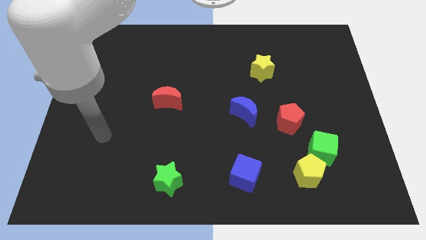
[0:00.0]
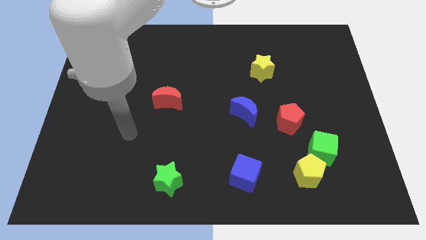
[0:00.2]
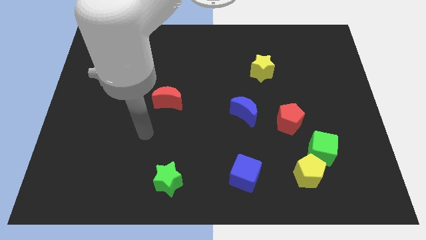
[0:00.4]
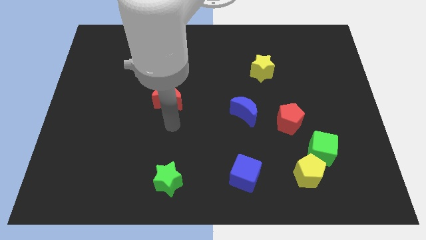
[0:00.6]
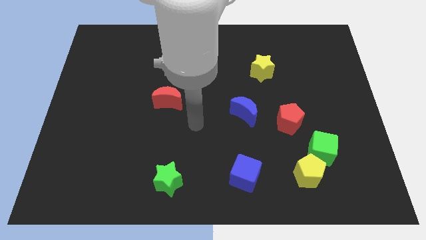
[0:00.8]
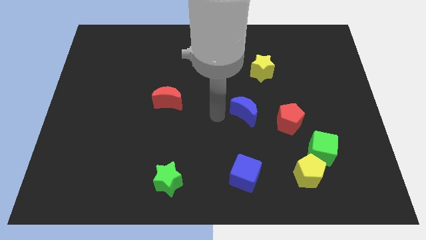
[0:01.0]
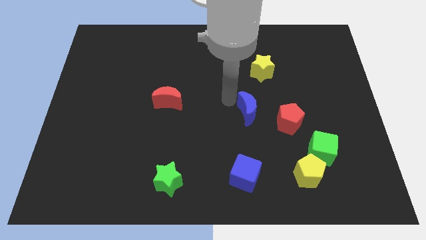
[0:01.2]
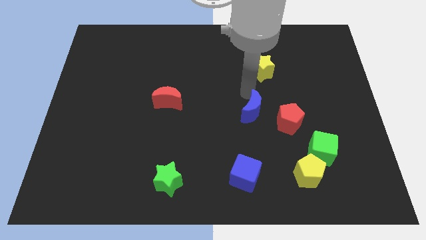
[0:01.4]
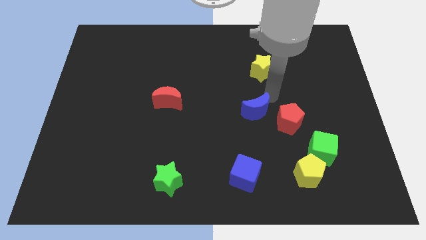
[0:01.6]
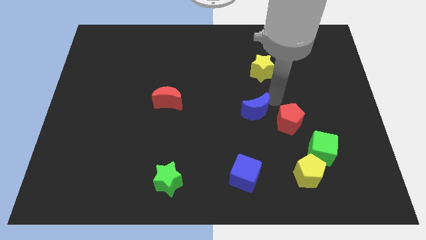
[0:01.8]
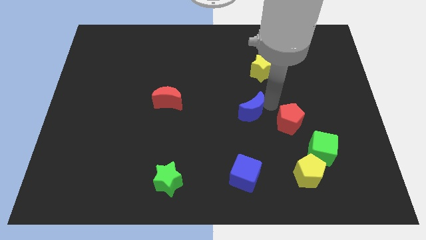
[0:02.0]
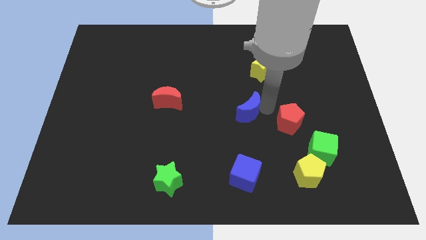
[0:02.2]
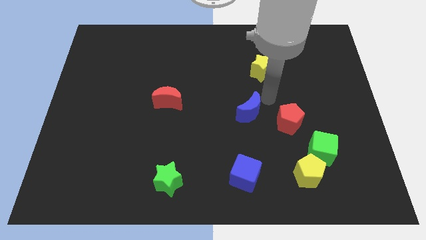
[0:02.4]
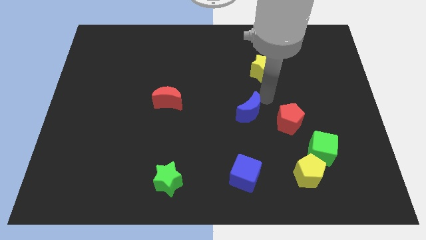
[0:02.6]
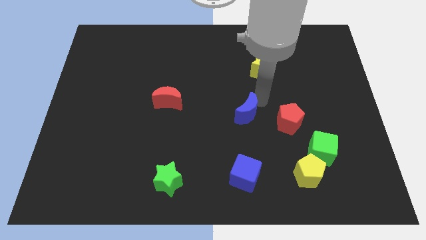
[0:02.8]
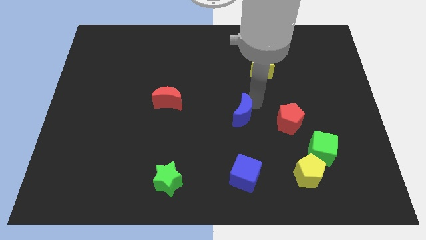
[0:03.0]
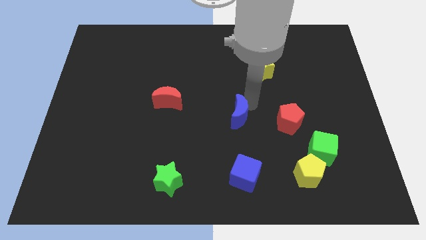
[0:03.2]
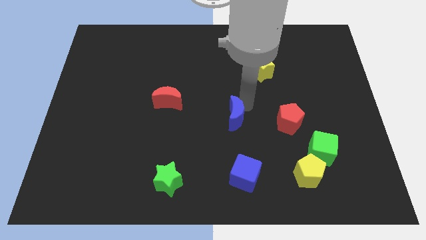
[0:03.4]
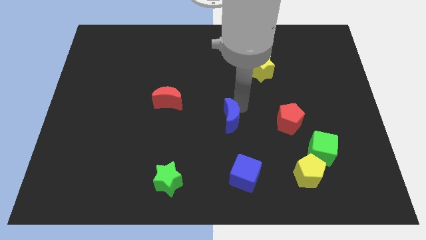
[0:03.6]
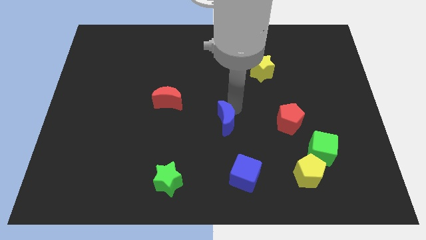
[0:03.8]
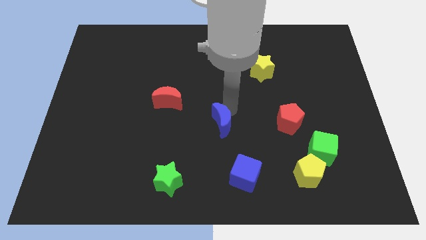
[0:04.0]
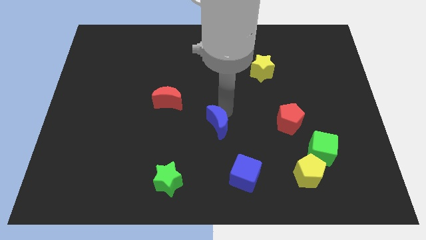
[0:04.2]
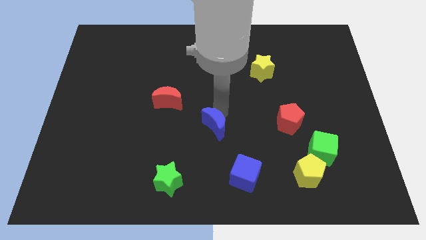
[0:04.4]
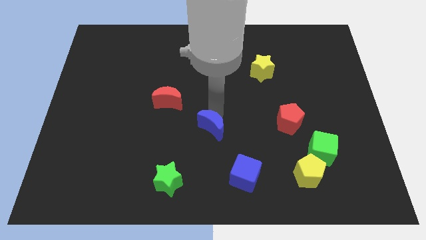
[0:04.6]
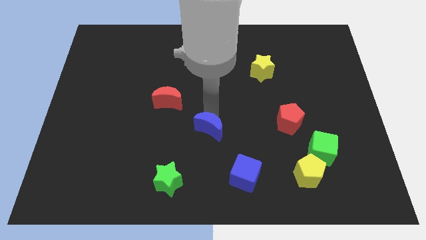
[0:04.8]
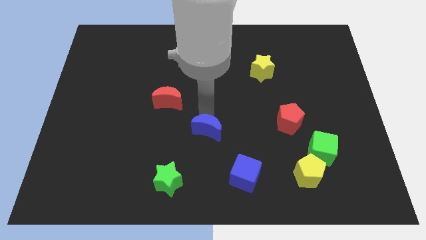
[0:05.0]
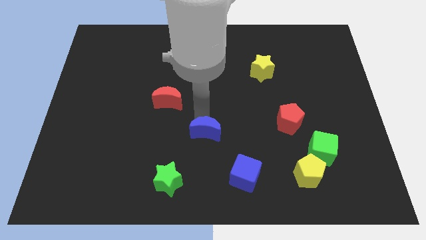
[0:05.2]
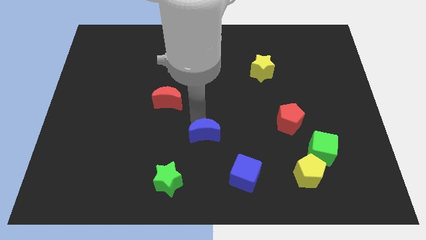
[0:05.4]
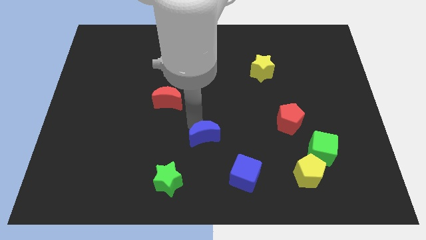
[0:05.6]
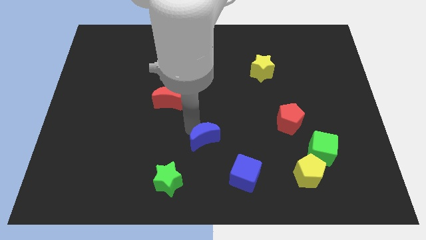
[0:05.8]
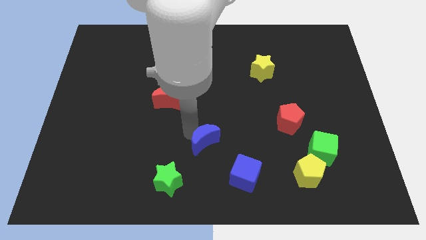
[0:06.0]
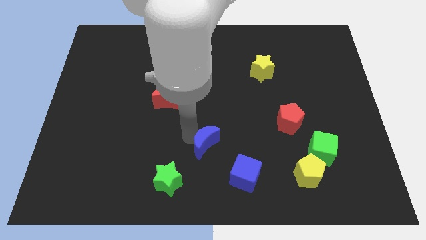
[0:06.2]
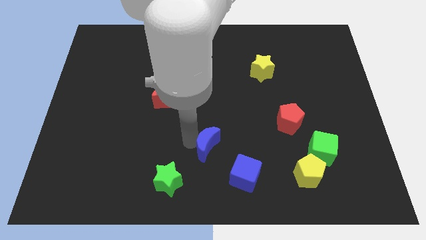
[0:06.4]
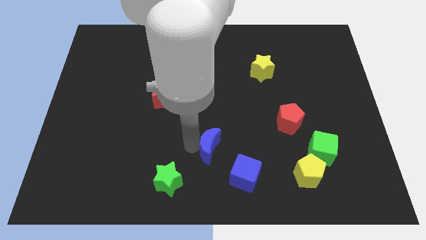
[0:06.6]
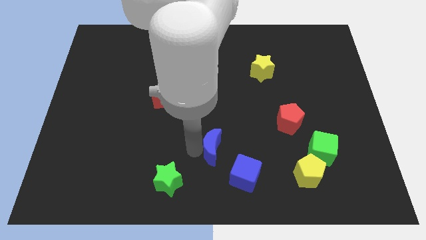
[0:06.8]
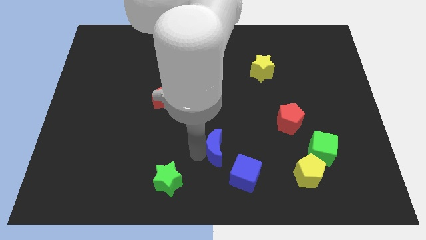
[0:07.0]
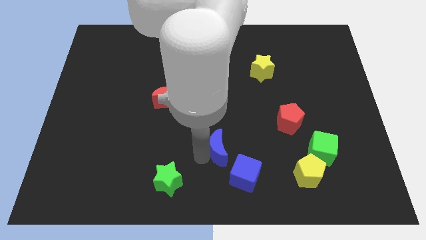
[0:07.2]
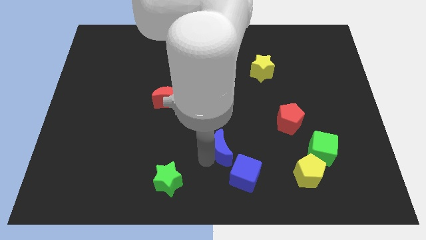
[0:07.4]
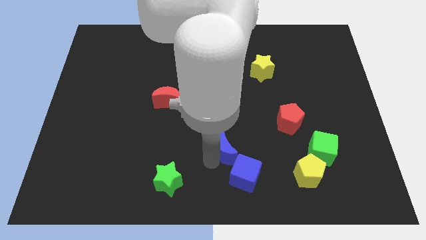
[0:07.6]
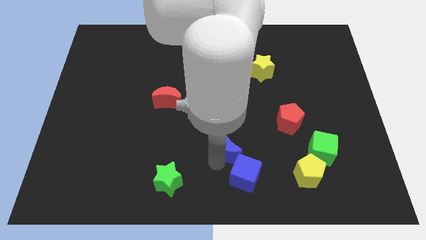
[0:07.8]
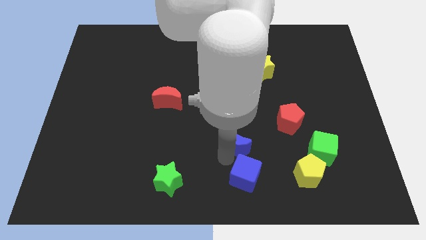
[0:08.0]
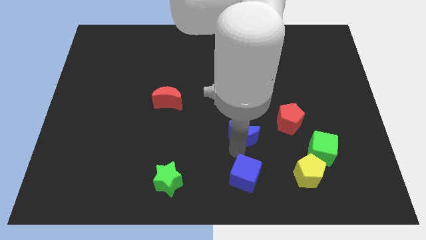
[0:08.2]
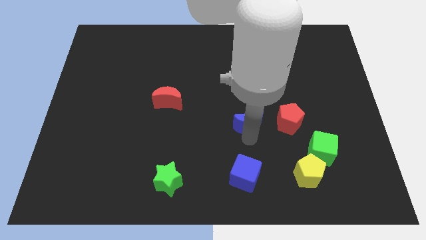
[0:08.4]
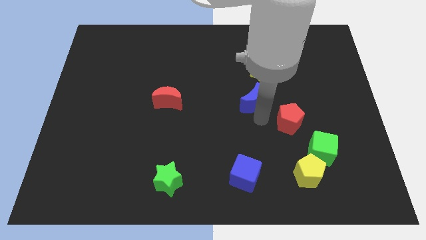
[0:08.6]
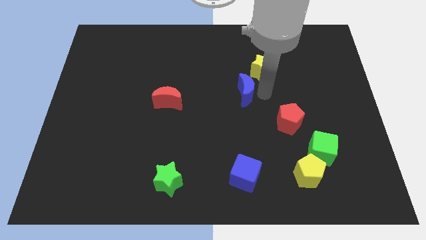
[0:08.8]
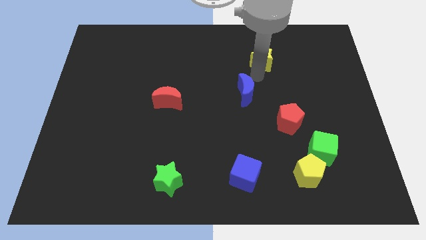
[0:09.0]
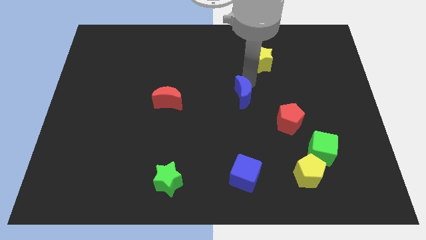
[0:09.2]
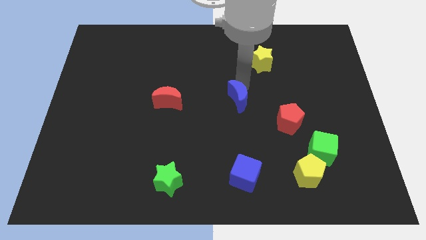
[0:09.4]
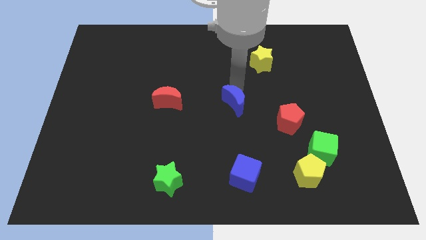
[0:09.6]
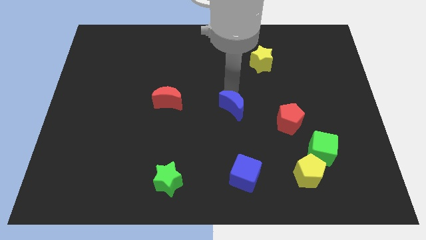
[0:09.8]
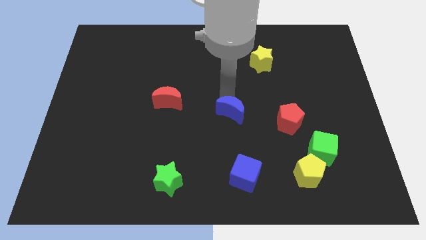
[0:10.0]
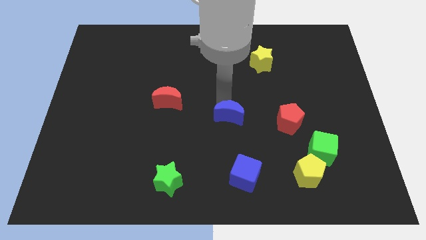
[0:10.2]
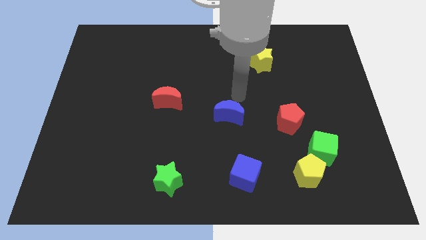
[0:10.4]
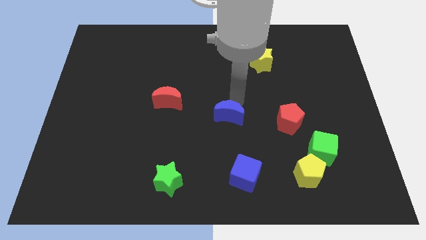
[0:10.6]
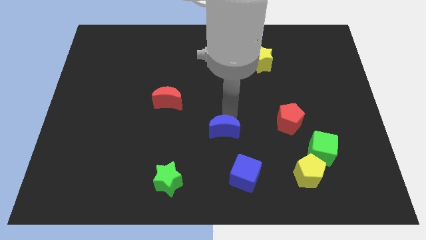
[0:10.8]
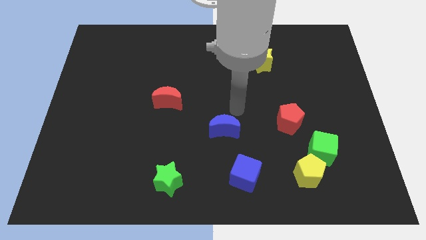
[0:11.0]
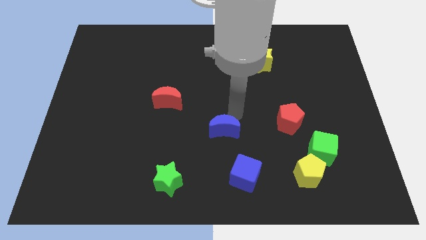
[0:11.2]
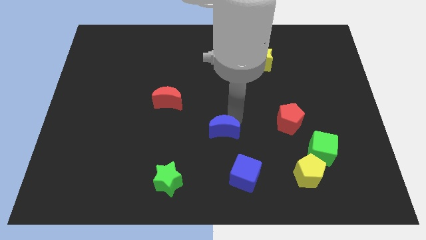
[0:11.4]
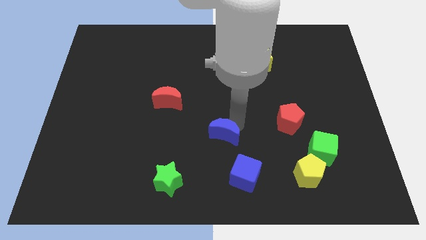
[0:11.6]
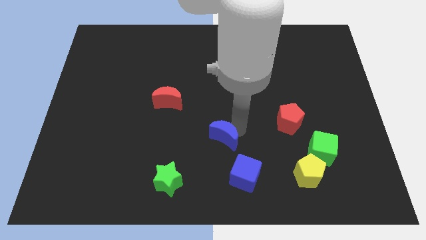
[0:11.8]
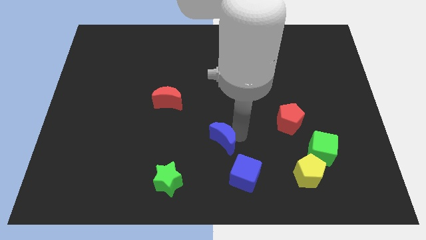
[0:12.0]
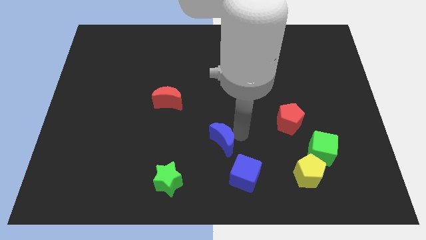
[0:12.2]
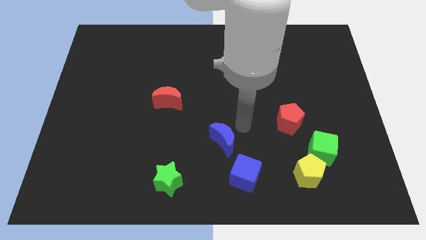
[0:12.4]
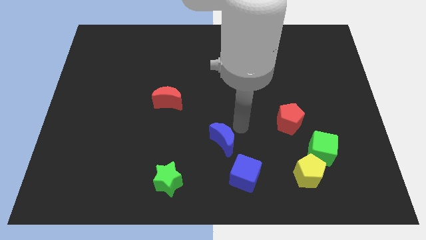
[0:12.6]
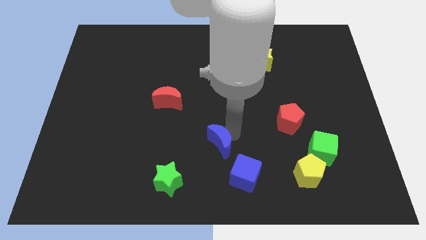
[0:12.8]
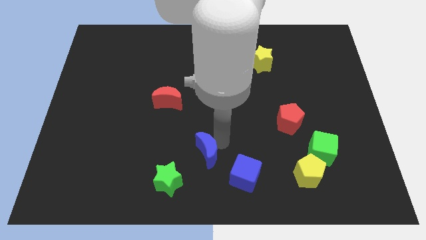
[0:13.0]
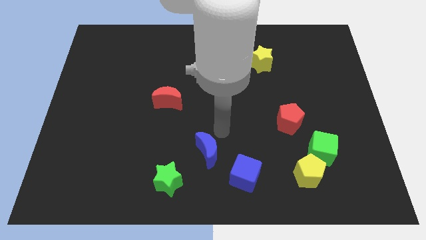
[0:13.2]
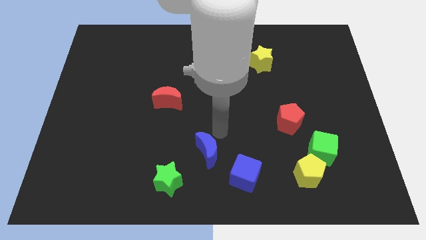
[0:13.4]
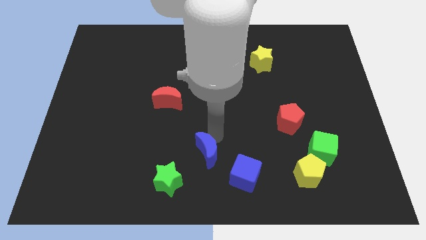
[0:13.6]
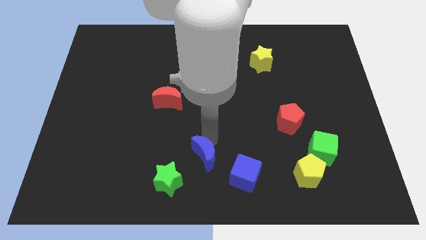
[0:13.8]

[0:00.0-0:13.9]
push the blue moon to the left side of the blue cube
